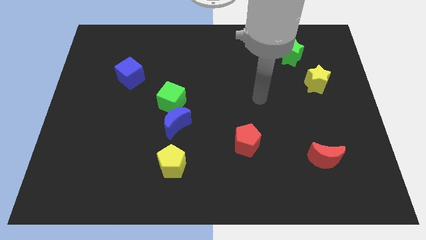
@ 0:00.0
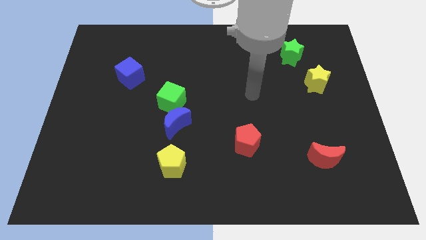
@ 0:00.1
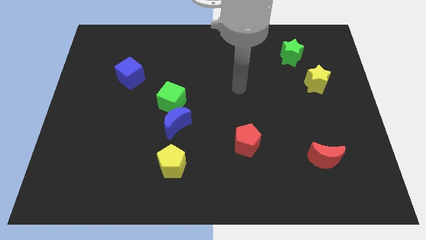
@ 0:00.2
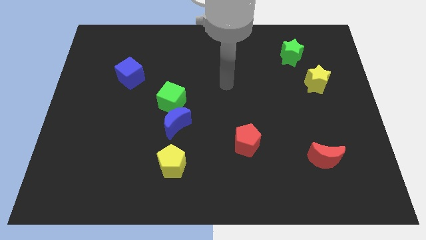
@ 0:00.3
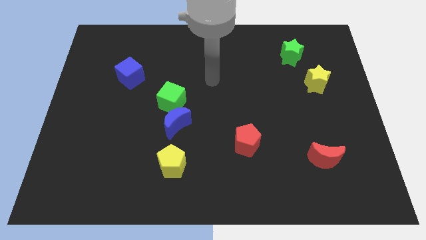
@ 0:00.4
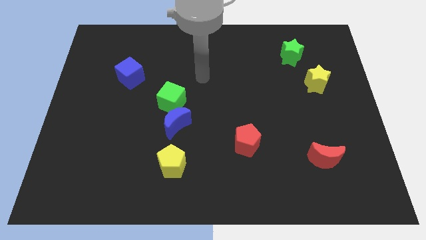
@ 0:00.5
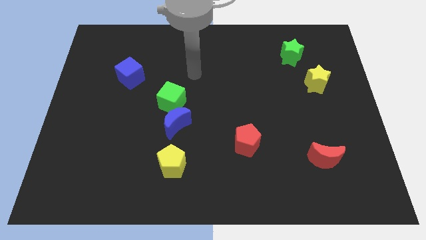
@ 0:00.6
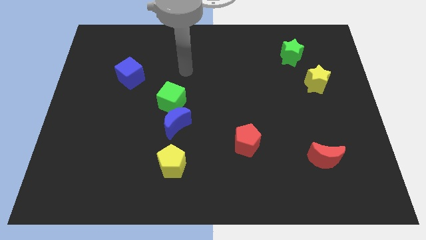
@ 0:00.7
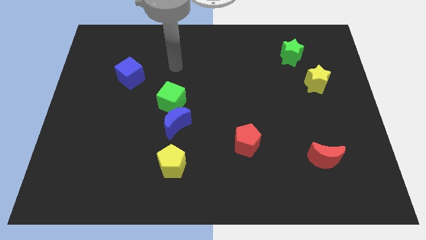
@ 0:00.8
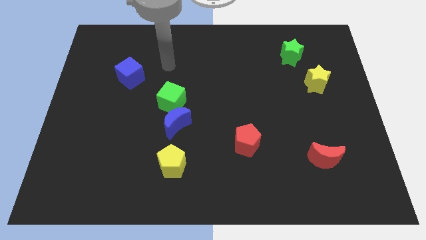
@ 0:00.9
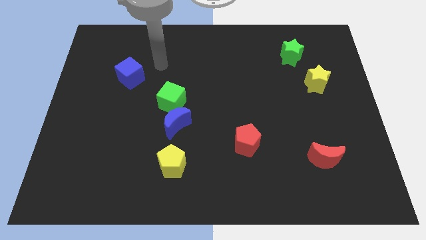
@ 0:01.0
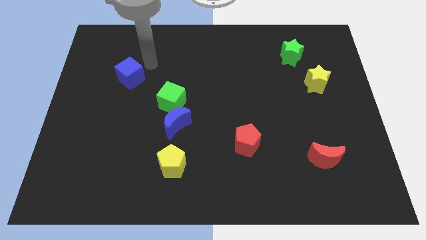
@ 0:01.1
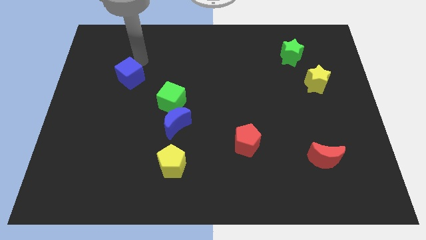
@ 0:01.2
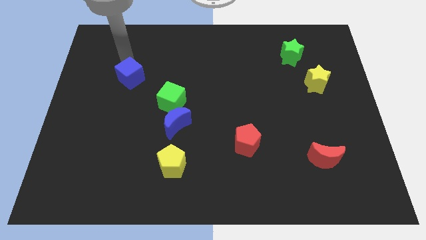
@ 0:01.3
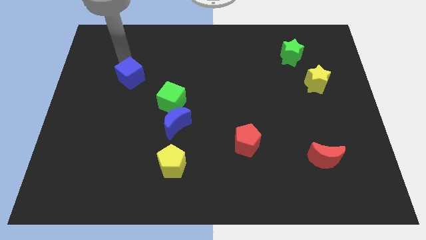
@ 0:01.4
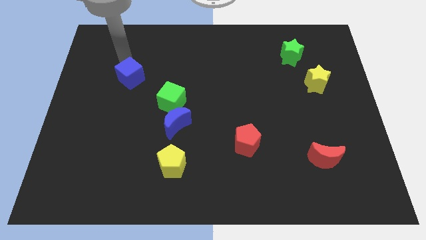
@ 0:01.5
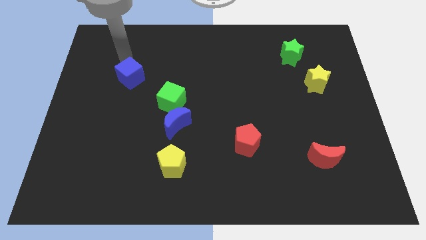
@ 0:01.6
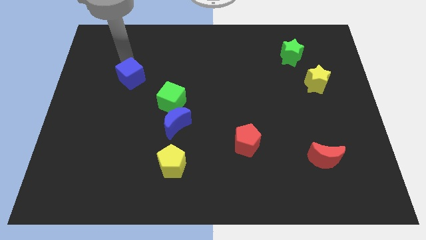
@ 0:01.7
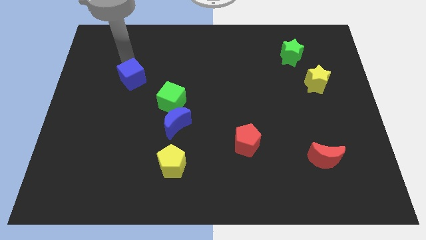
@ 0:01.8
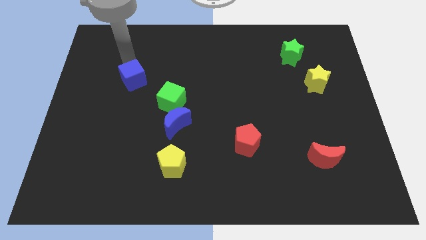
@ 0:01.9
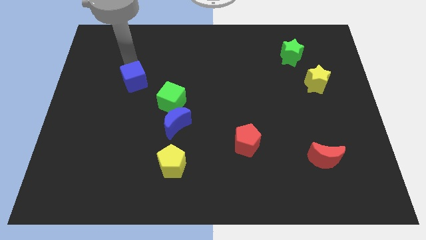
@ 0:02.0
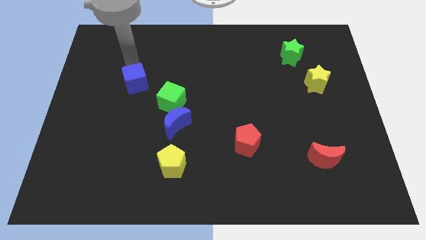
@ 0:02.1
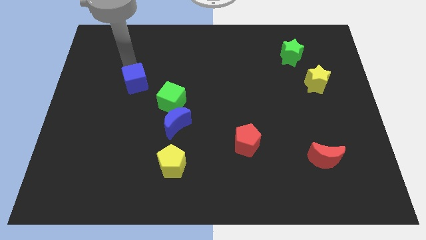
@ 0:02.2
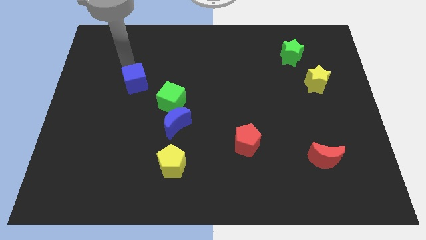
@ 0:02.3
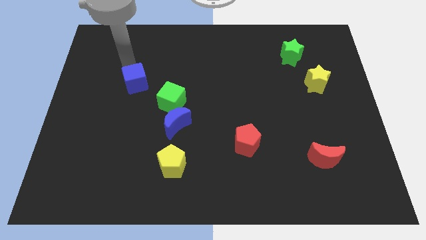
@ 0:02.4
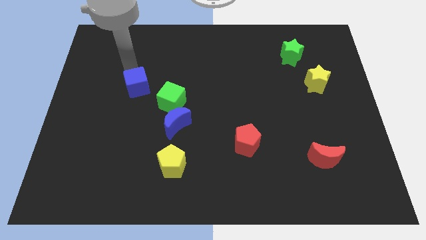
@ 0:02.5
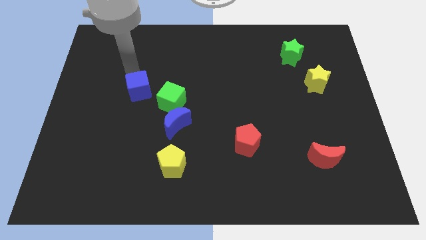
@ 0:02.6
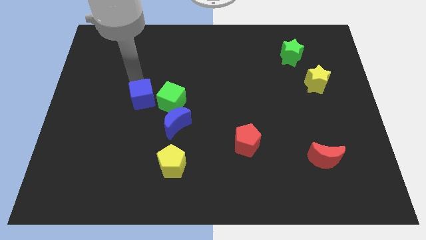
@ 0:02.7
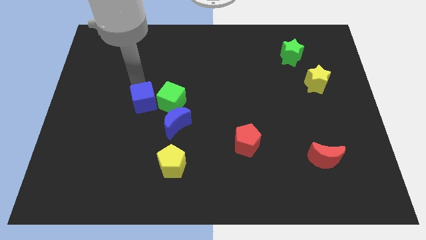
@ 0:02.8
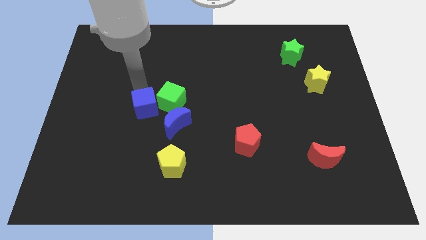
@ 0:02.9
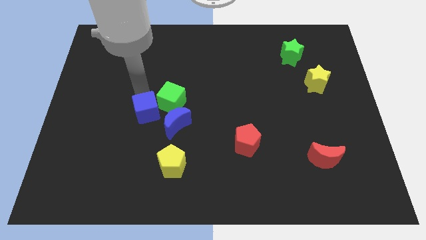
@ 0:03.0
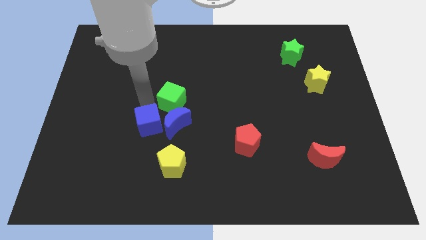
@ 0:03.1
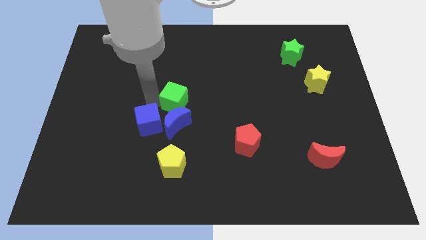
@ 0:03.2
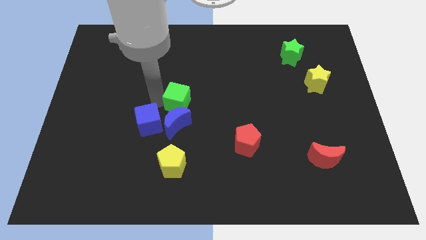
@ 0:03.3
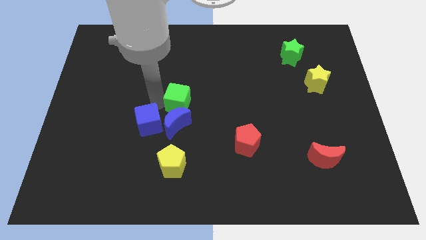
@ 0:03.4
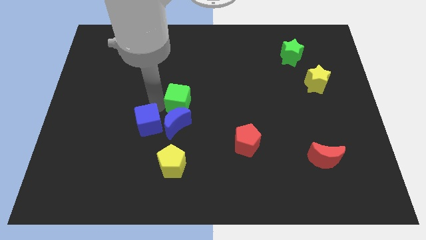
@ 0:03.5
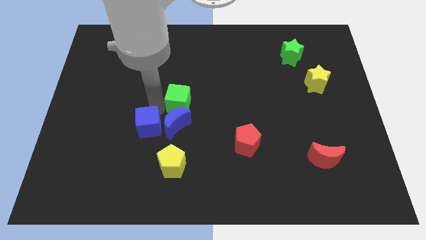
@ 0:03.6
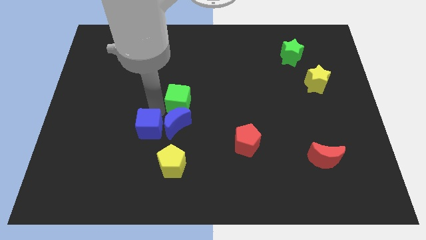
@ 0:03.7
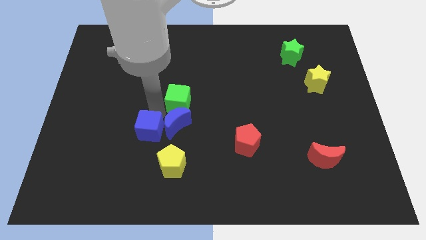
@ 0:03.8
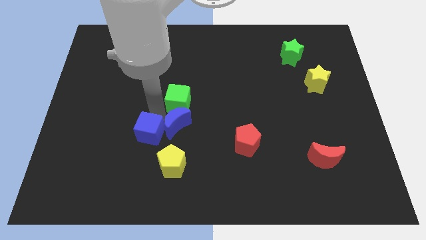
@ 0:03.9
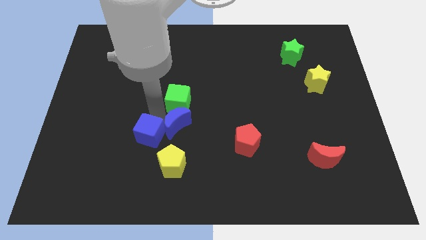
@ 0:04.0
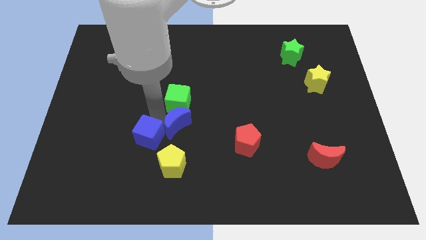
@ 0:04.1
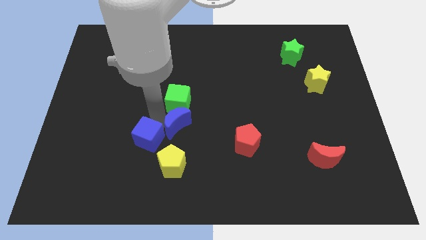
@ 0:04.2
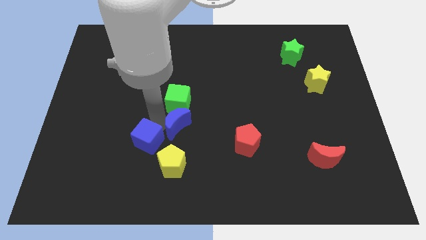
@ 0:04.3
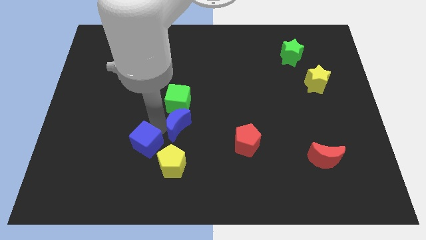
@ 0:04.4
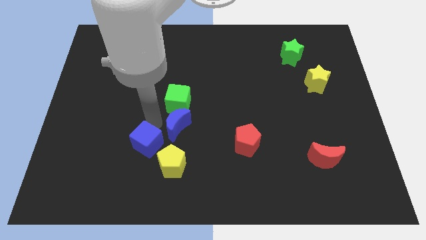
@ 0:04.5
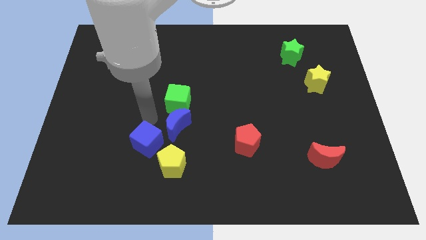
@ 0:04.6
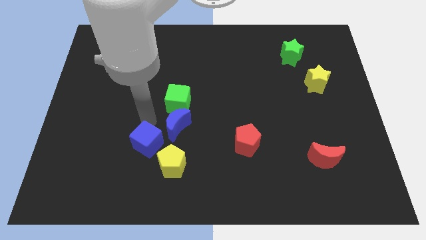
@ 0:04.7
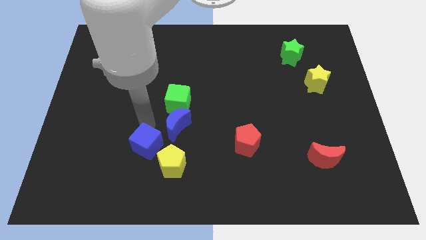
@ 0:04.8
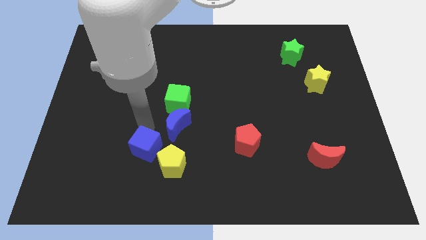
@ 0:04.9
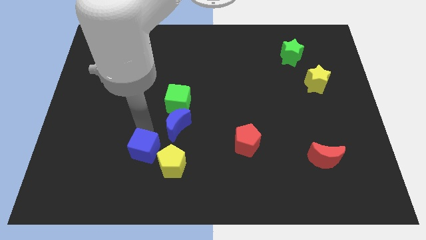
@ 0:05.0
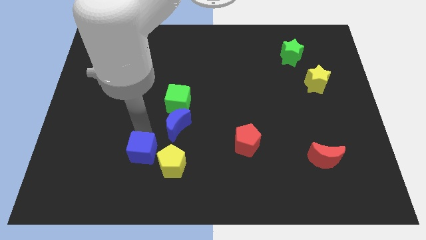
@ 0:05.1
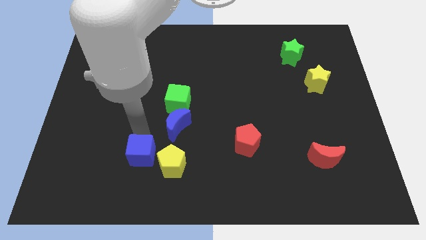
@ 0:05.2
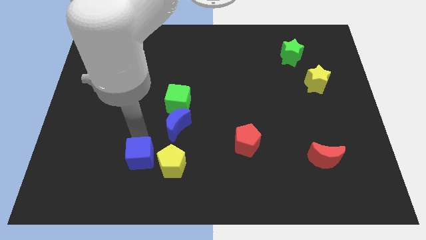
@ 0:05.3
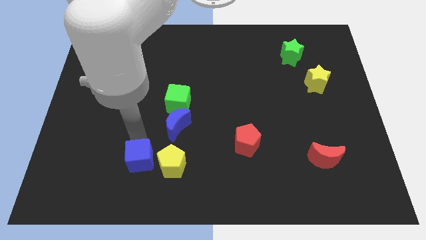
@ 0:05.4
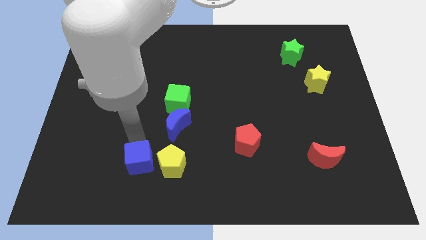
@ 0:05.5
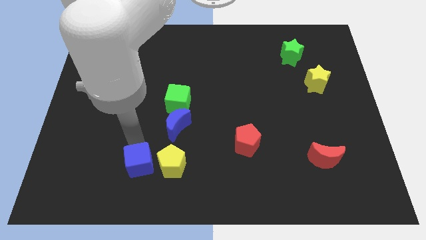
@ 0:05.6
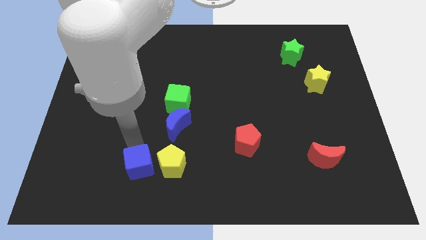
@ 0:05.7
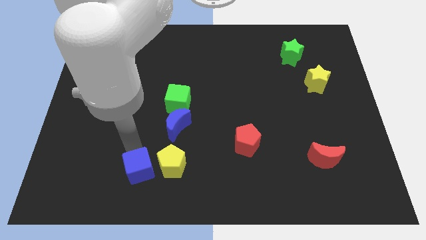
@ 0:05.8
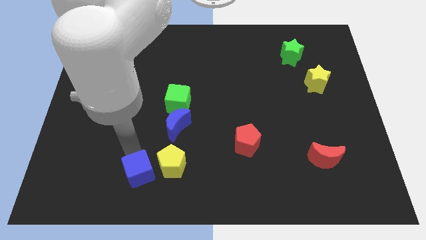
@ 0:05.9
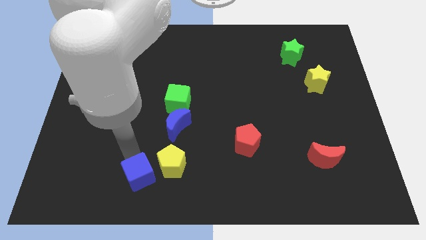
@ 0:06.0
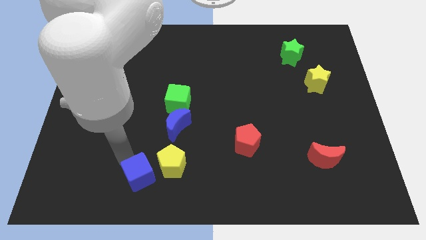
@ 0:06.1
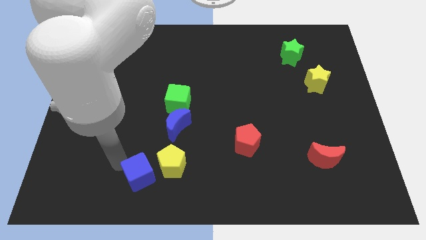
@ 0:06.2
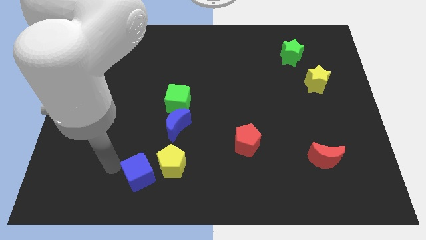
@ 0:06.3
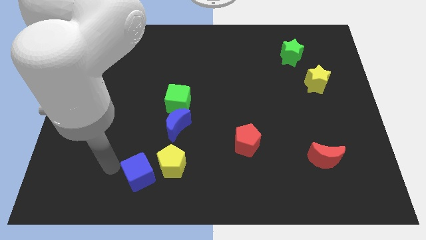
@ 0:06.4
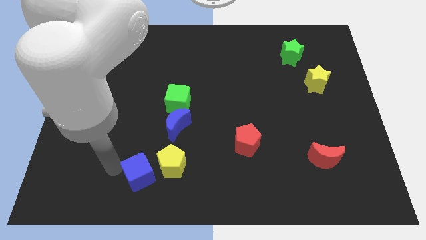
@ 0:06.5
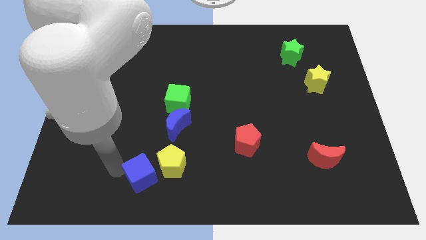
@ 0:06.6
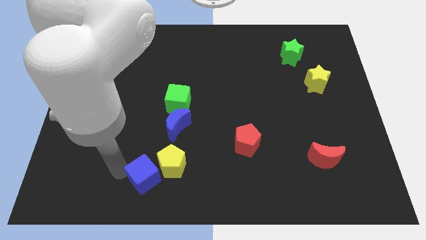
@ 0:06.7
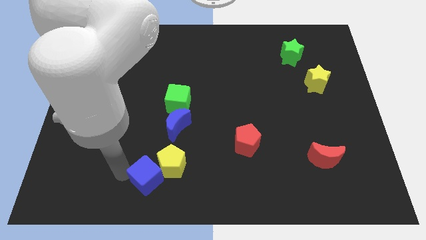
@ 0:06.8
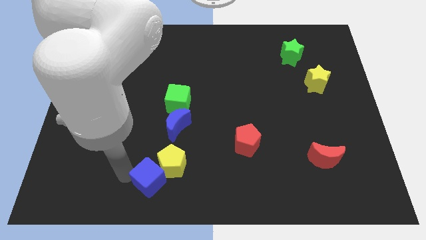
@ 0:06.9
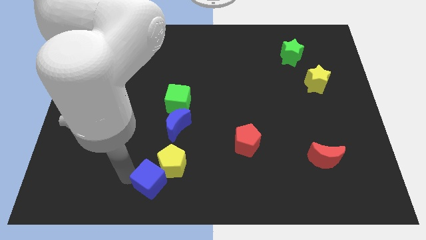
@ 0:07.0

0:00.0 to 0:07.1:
put the blue cube to the bottom side of the blue moon

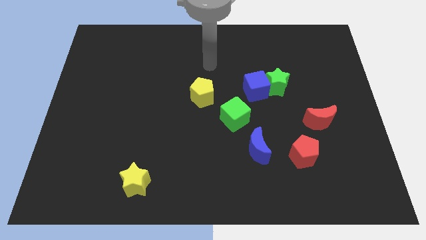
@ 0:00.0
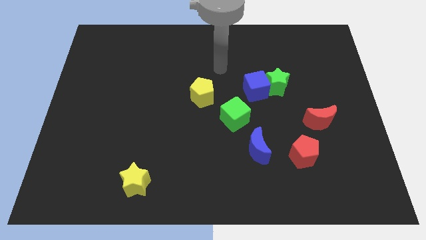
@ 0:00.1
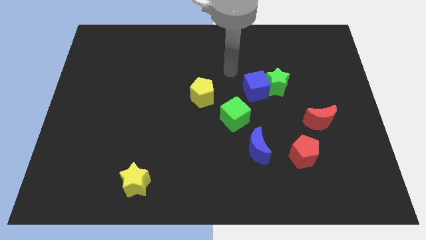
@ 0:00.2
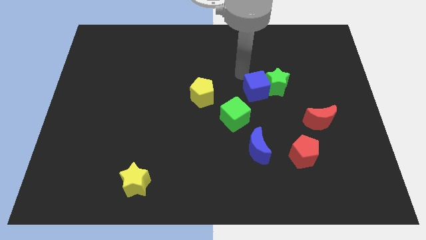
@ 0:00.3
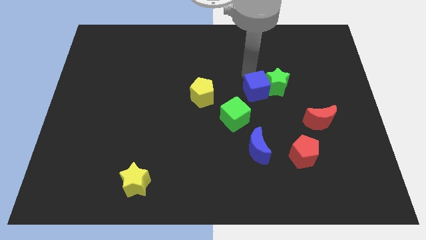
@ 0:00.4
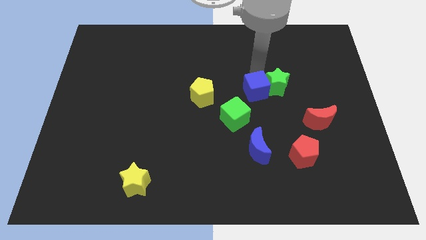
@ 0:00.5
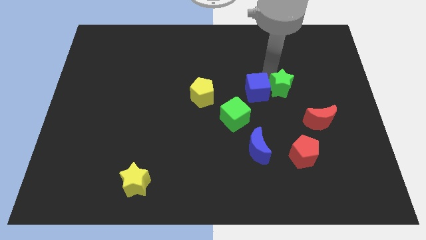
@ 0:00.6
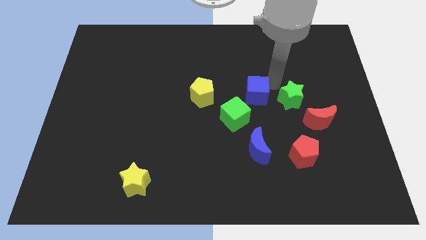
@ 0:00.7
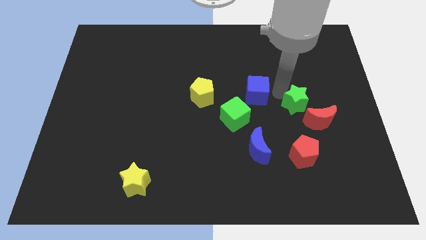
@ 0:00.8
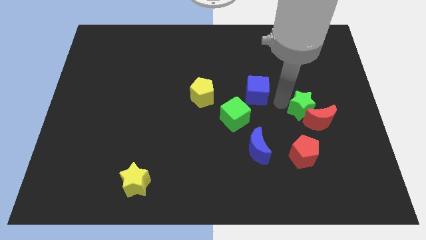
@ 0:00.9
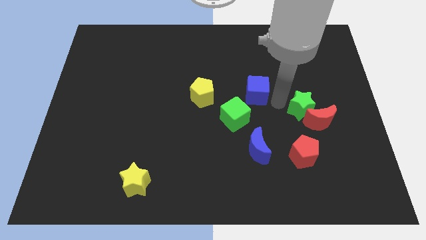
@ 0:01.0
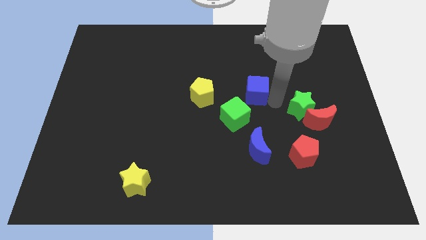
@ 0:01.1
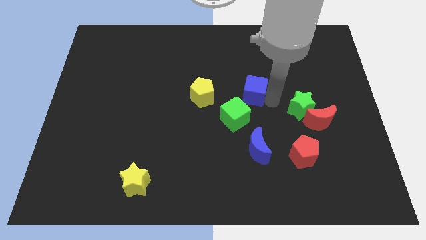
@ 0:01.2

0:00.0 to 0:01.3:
slide the blue cube to the top side of the green cube
